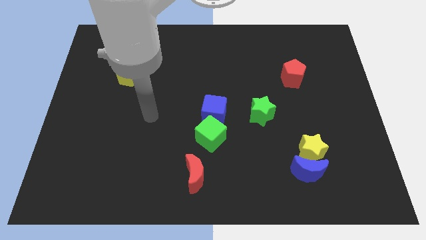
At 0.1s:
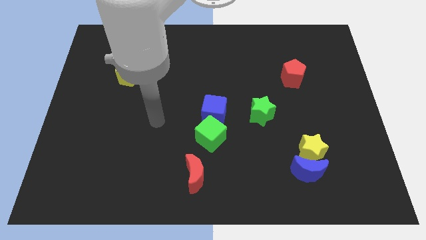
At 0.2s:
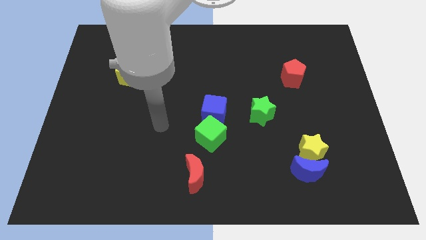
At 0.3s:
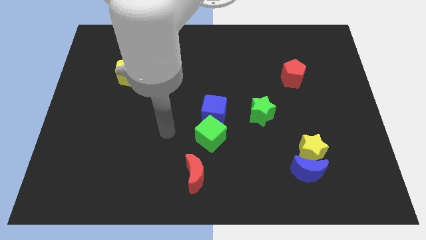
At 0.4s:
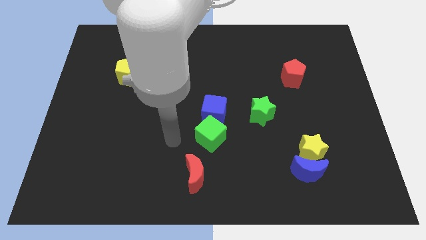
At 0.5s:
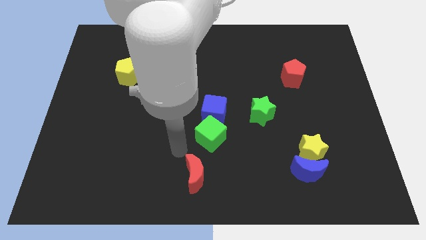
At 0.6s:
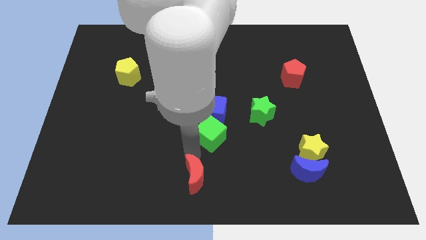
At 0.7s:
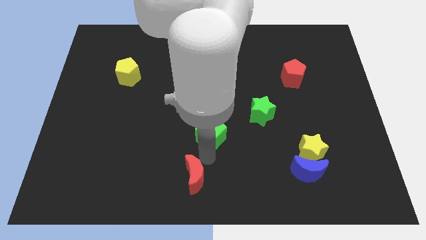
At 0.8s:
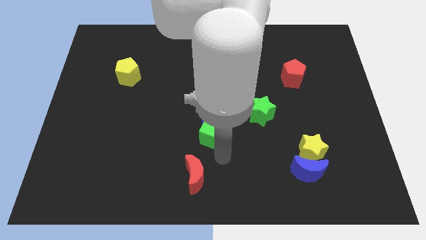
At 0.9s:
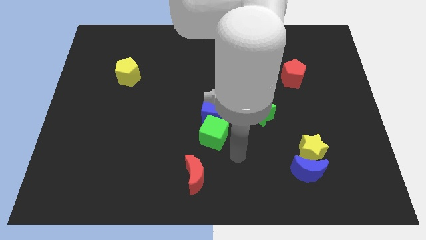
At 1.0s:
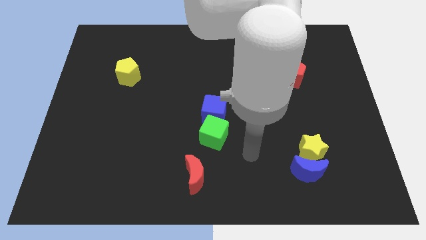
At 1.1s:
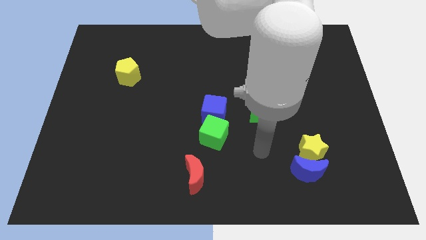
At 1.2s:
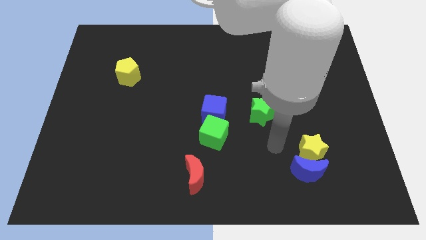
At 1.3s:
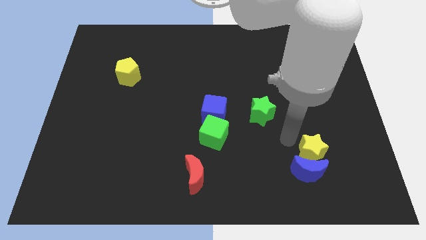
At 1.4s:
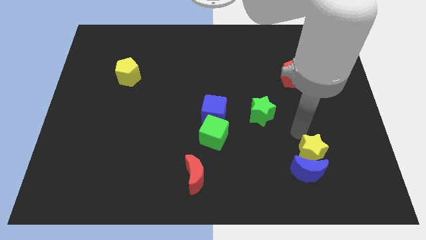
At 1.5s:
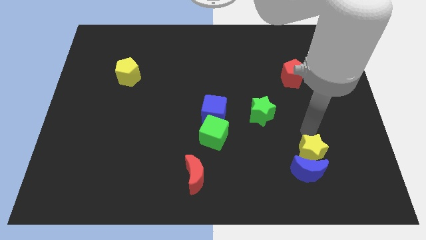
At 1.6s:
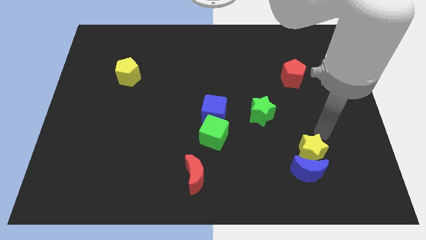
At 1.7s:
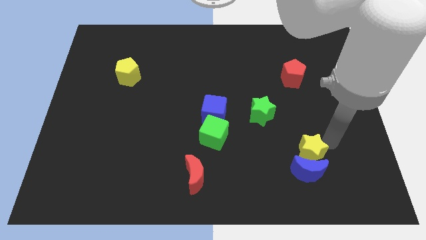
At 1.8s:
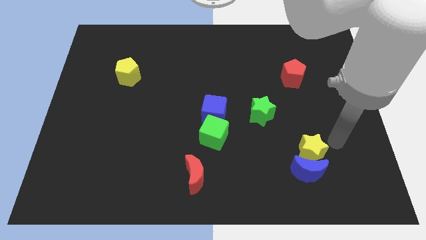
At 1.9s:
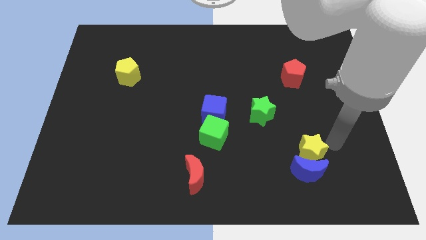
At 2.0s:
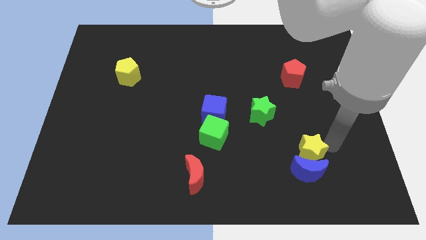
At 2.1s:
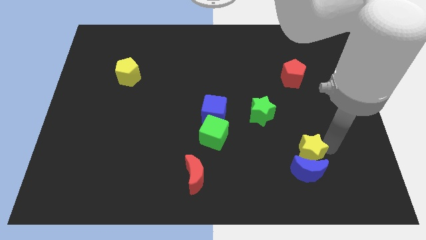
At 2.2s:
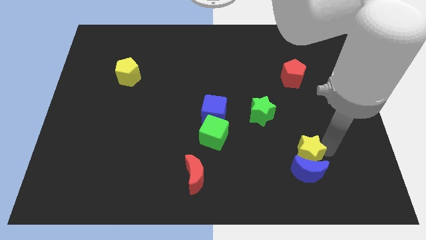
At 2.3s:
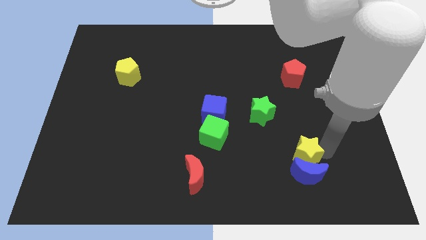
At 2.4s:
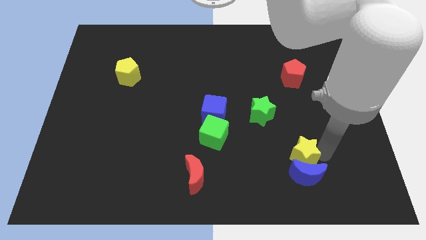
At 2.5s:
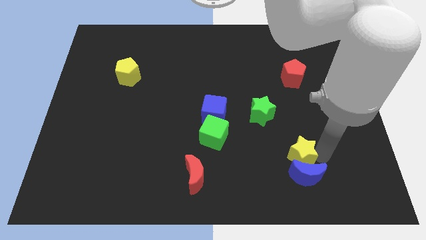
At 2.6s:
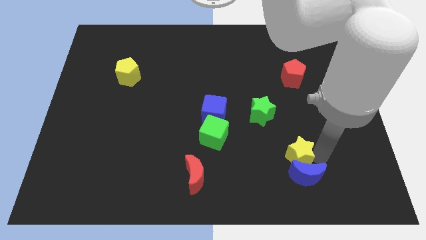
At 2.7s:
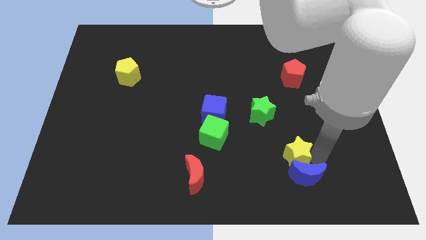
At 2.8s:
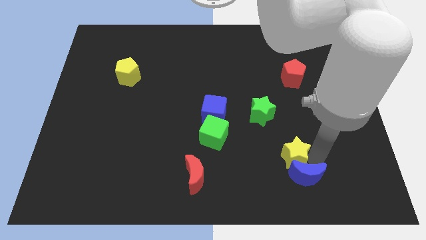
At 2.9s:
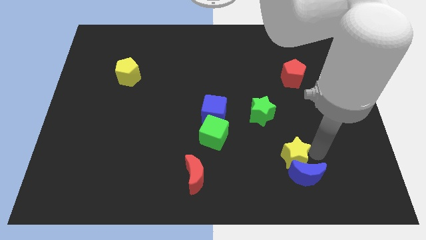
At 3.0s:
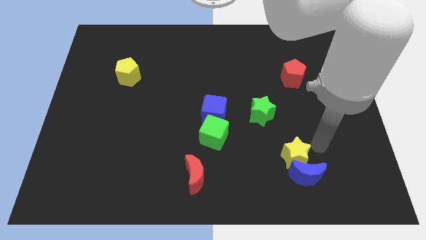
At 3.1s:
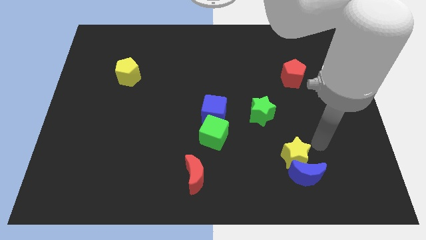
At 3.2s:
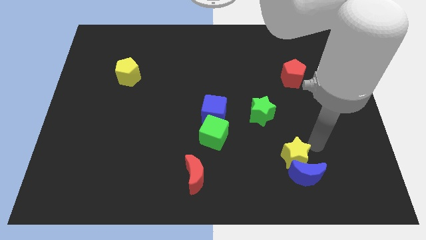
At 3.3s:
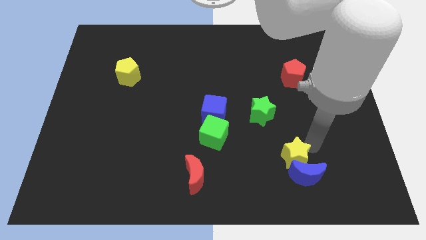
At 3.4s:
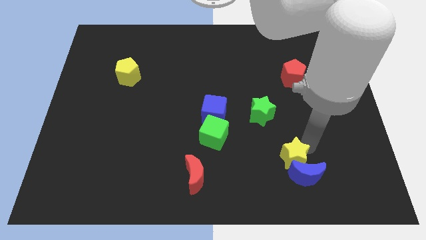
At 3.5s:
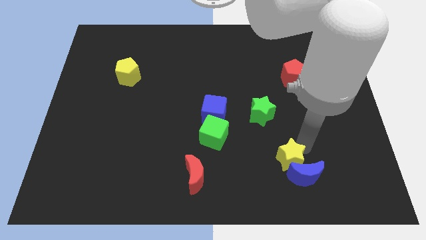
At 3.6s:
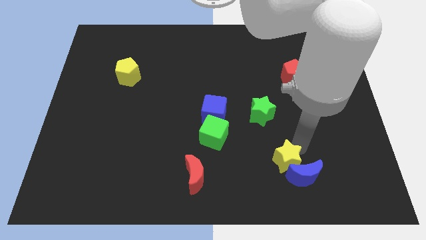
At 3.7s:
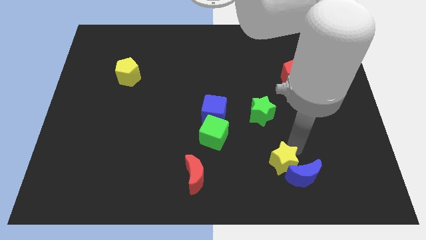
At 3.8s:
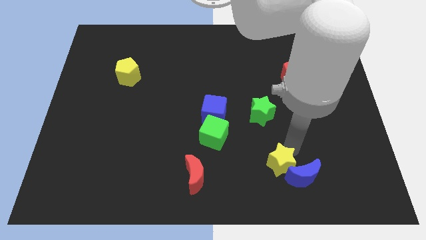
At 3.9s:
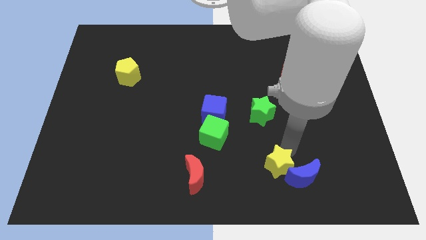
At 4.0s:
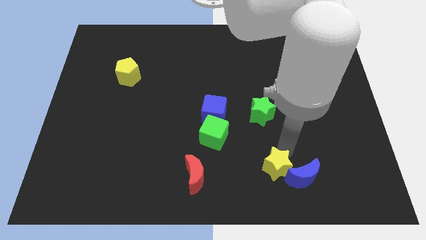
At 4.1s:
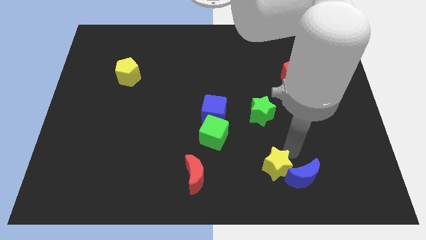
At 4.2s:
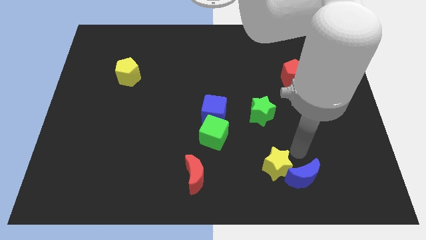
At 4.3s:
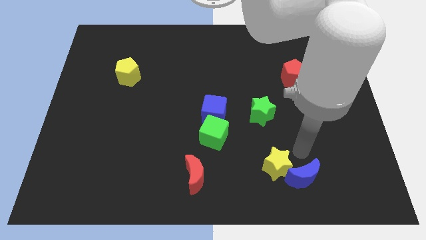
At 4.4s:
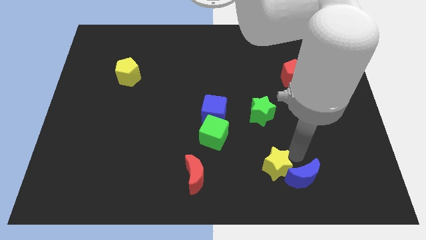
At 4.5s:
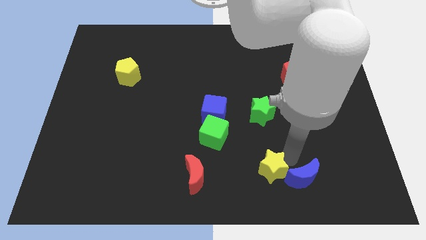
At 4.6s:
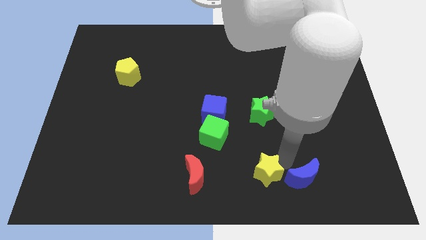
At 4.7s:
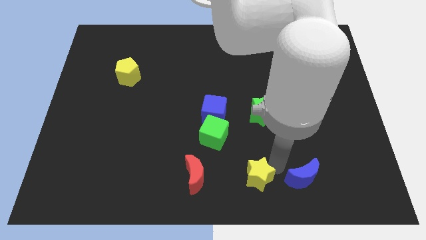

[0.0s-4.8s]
put the yellow star to the bottom side

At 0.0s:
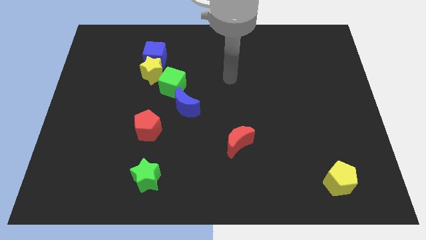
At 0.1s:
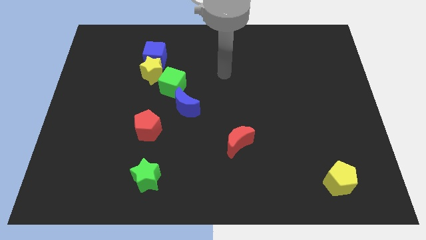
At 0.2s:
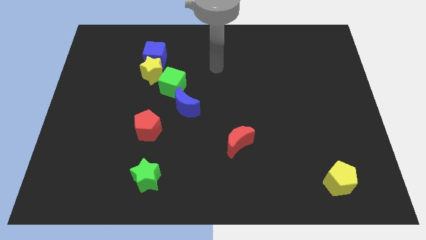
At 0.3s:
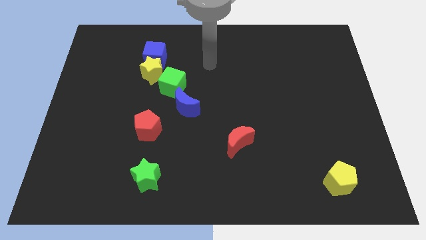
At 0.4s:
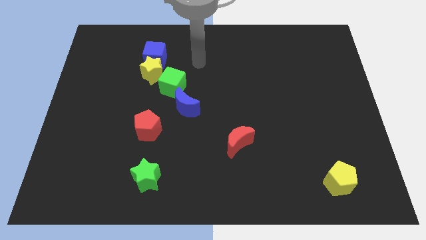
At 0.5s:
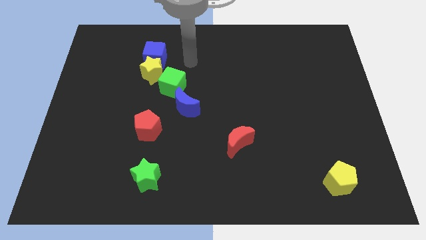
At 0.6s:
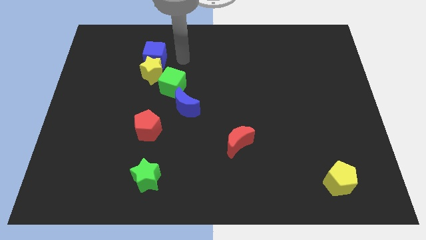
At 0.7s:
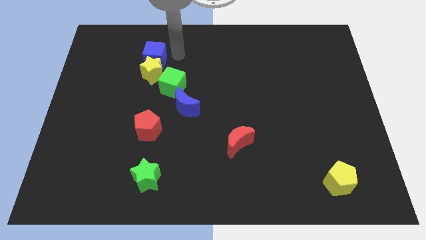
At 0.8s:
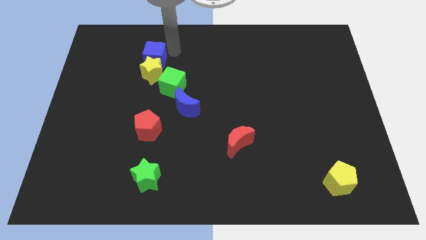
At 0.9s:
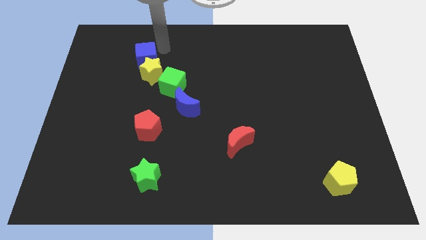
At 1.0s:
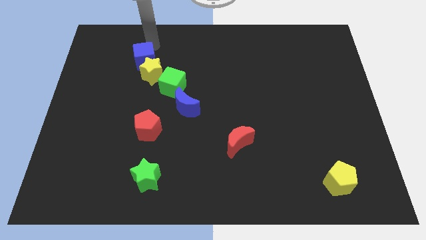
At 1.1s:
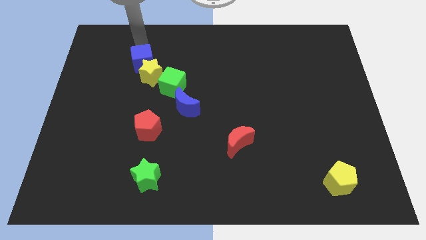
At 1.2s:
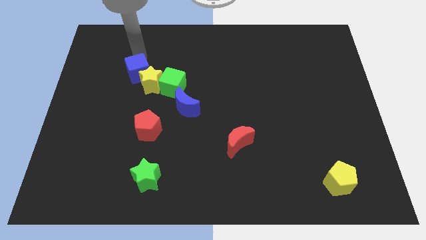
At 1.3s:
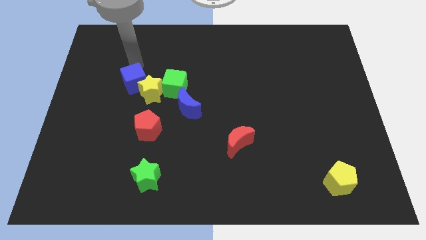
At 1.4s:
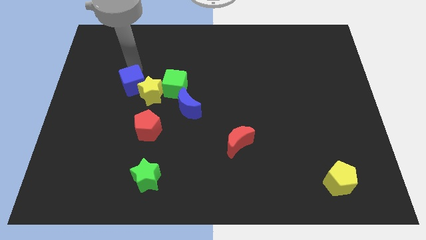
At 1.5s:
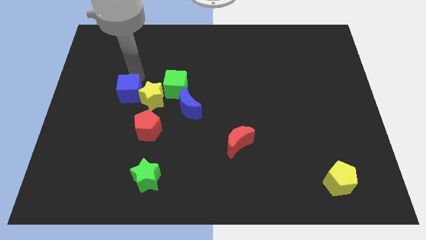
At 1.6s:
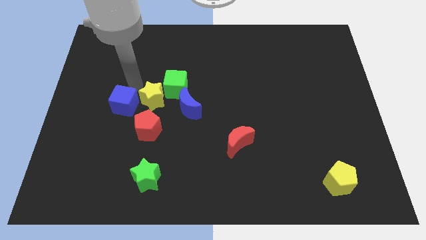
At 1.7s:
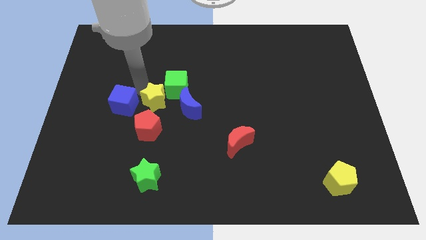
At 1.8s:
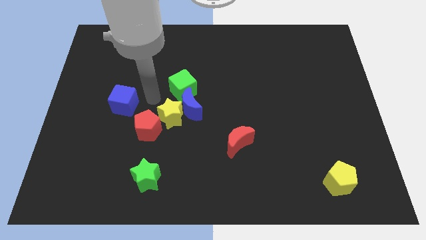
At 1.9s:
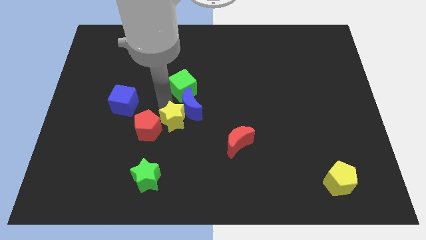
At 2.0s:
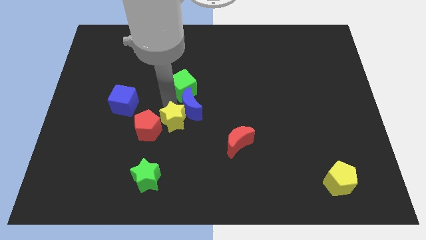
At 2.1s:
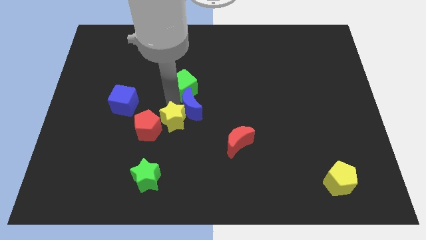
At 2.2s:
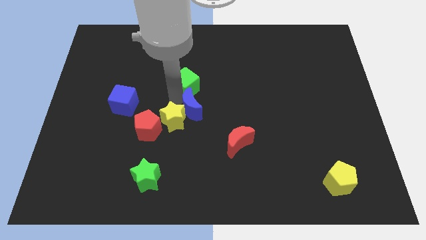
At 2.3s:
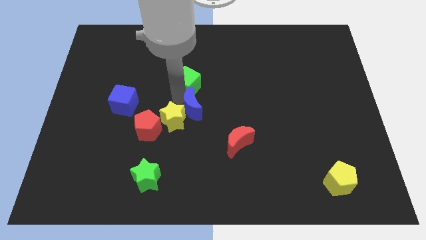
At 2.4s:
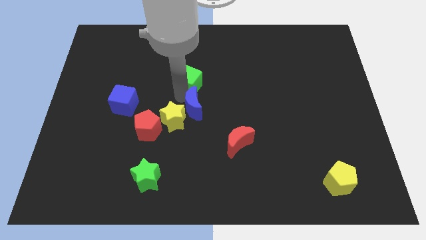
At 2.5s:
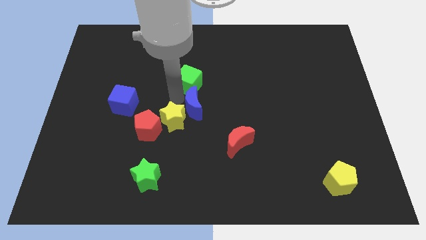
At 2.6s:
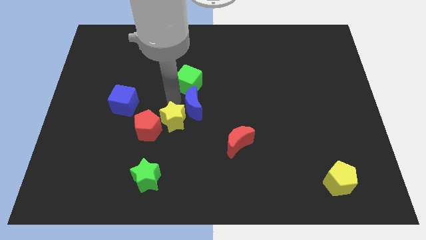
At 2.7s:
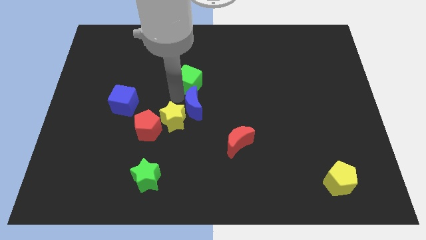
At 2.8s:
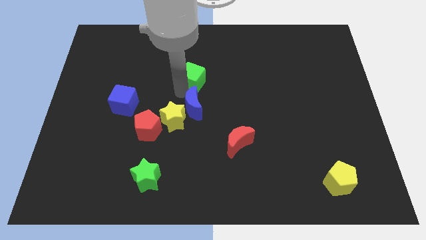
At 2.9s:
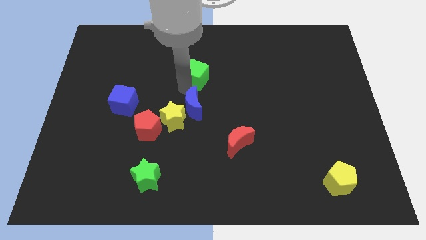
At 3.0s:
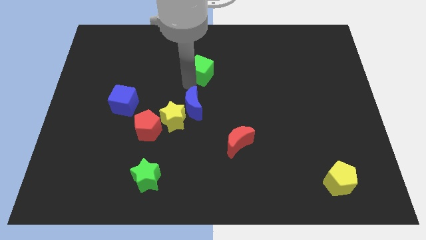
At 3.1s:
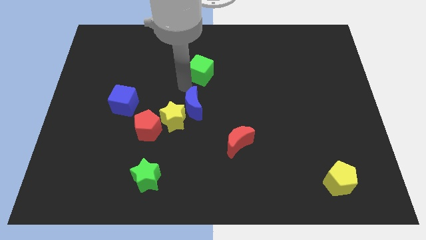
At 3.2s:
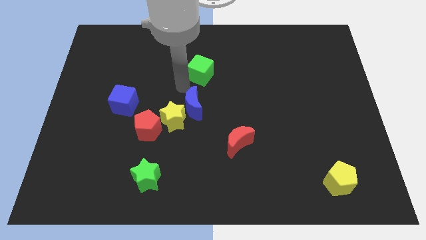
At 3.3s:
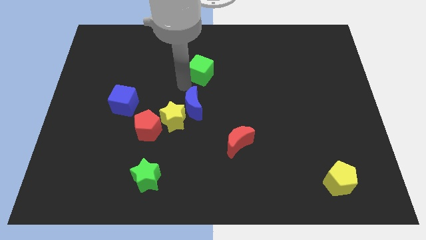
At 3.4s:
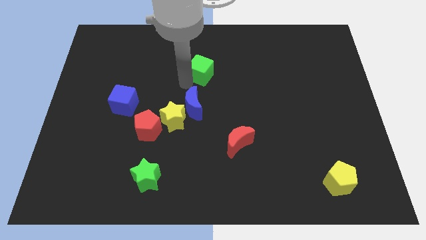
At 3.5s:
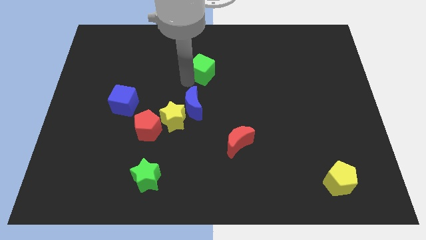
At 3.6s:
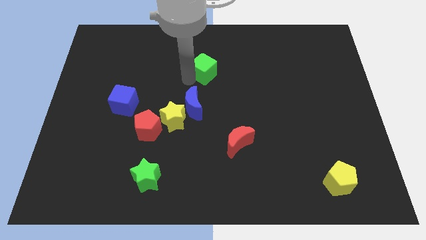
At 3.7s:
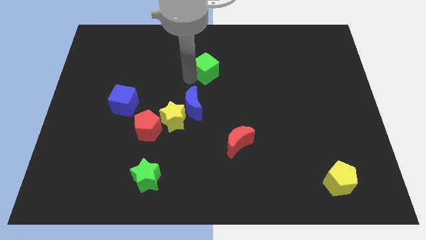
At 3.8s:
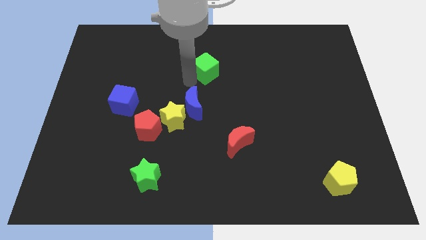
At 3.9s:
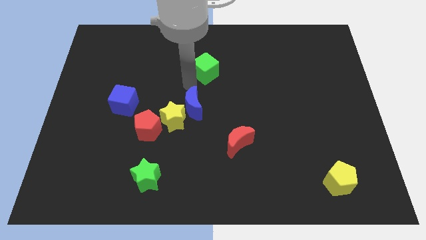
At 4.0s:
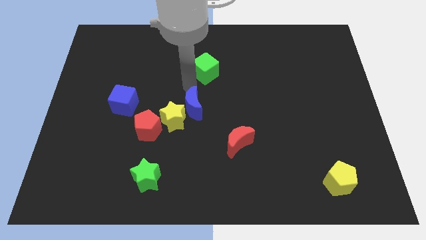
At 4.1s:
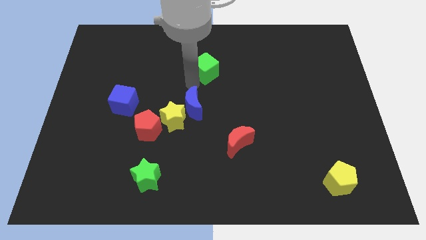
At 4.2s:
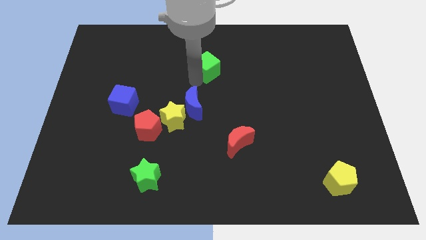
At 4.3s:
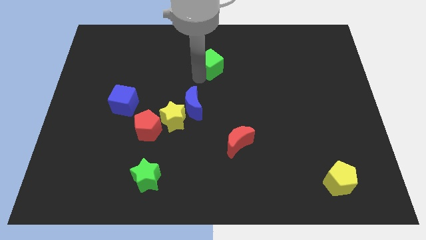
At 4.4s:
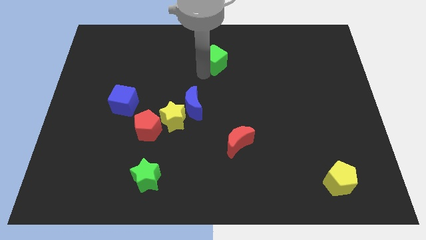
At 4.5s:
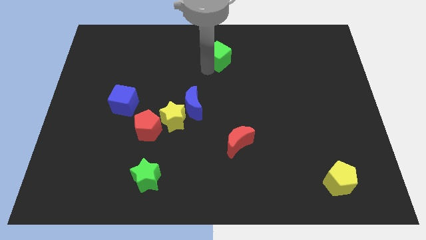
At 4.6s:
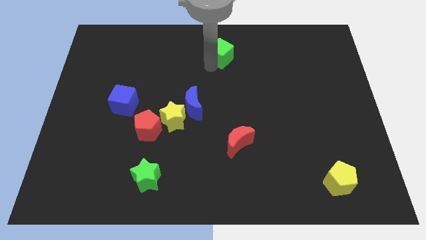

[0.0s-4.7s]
put the green cube to the top
